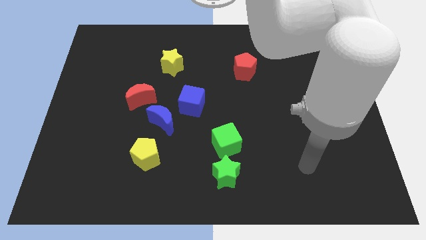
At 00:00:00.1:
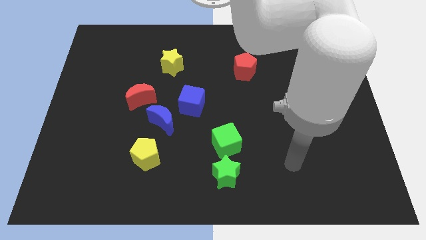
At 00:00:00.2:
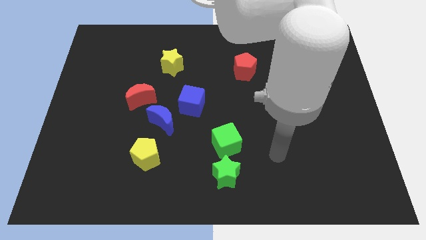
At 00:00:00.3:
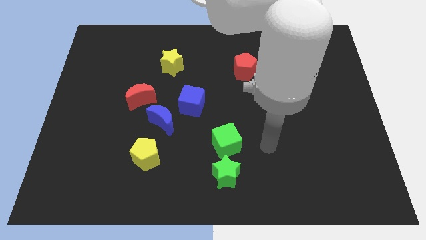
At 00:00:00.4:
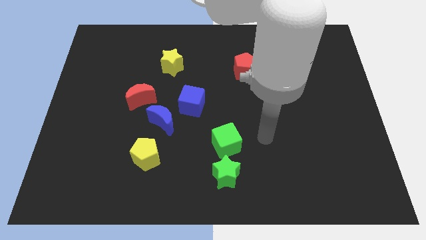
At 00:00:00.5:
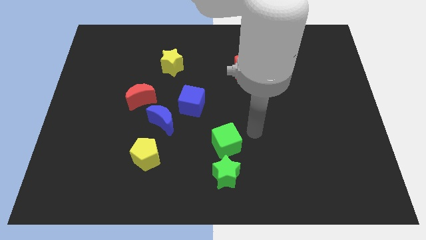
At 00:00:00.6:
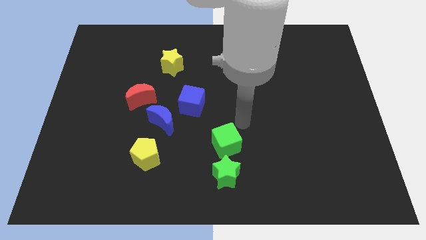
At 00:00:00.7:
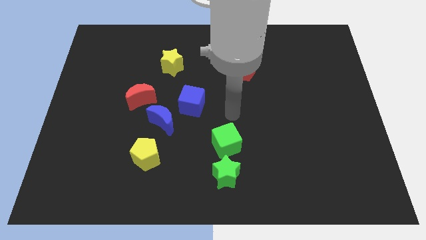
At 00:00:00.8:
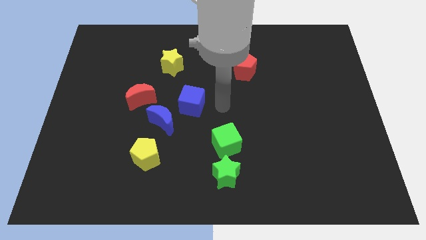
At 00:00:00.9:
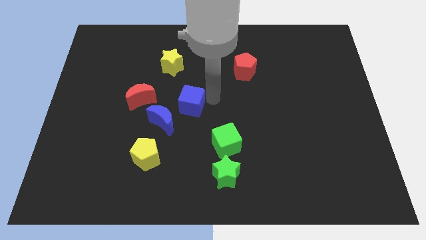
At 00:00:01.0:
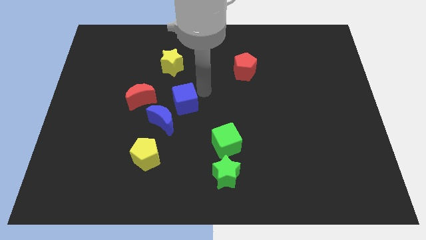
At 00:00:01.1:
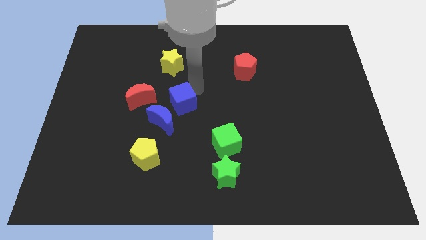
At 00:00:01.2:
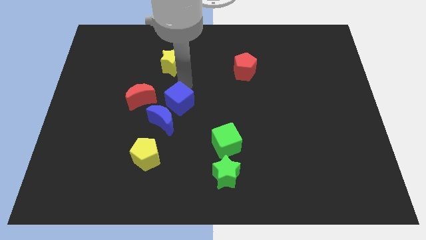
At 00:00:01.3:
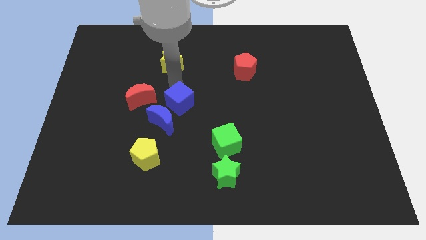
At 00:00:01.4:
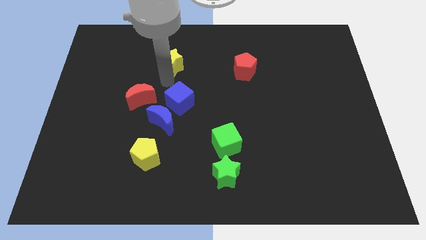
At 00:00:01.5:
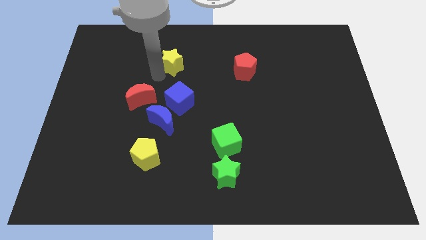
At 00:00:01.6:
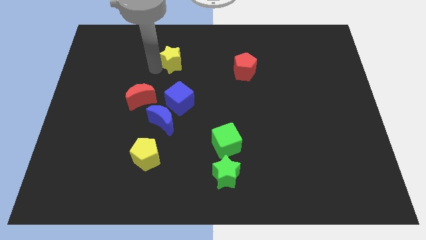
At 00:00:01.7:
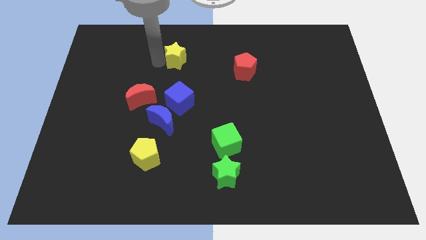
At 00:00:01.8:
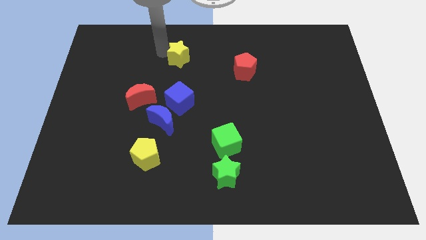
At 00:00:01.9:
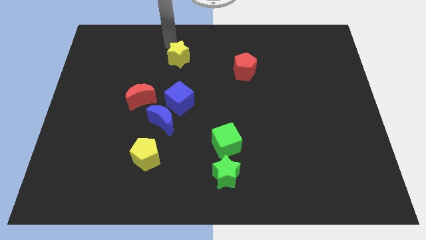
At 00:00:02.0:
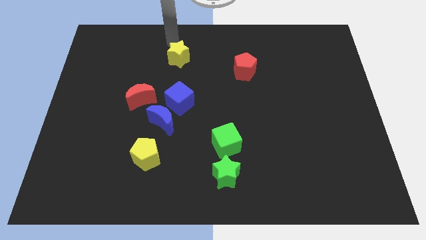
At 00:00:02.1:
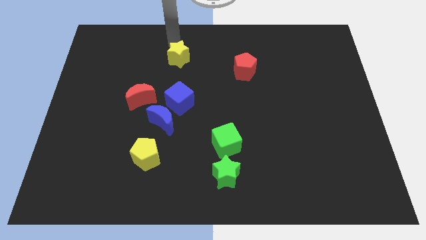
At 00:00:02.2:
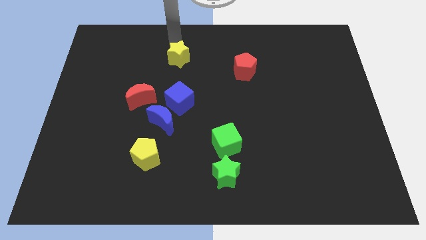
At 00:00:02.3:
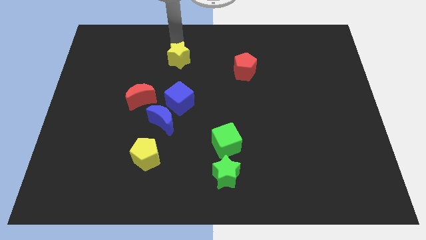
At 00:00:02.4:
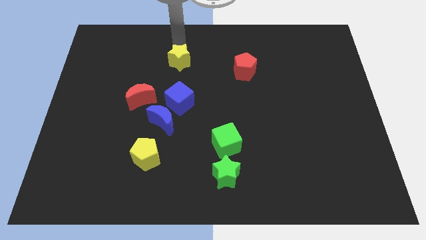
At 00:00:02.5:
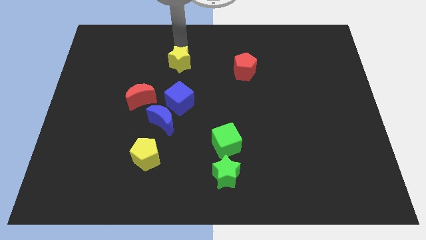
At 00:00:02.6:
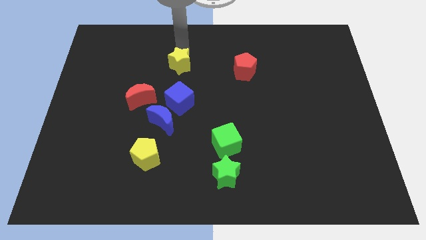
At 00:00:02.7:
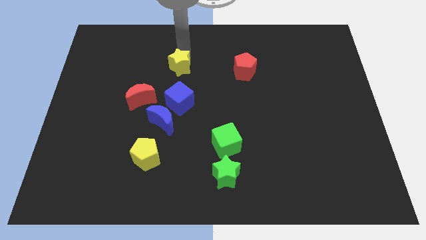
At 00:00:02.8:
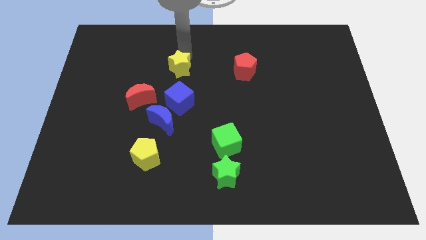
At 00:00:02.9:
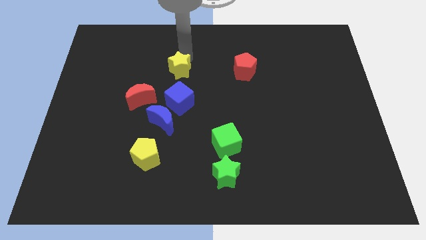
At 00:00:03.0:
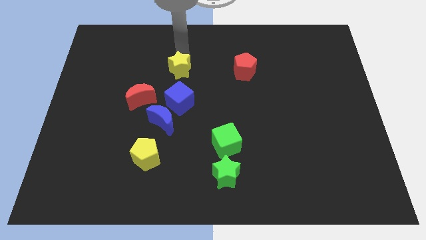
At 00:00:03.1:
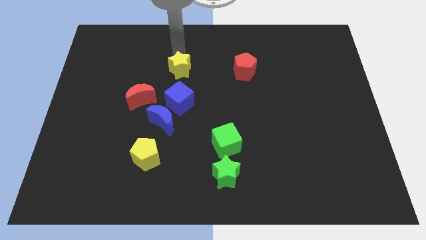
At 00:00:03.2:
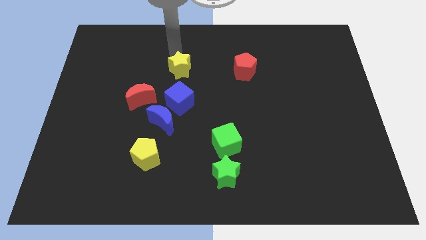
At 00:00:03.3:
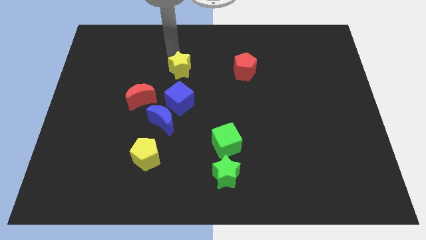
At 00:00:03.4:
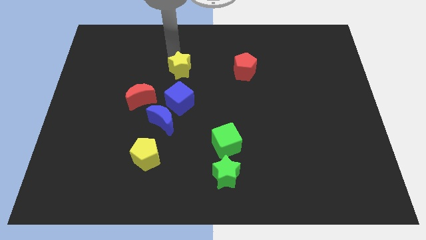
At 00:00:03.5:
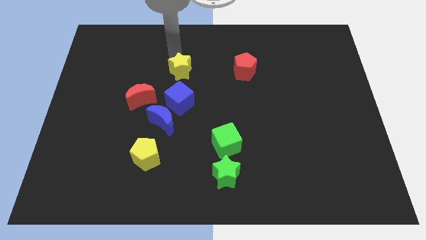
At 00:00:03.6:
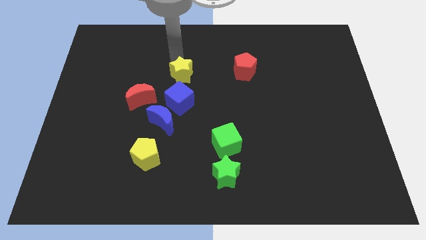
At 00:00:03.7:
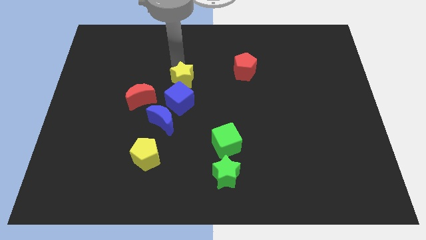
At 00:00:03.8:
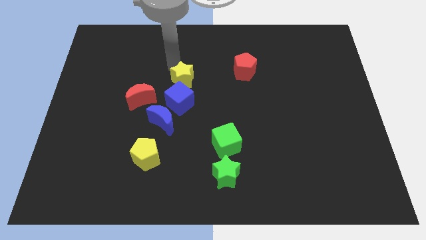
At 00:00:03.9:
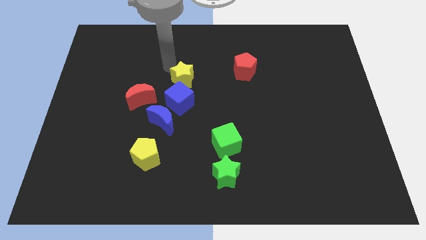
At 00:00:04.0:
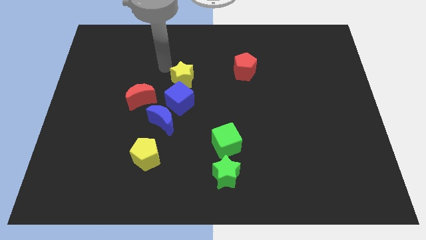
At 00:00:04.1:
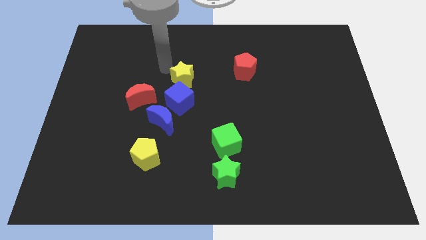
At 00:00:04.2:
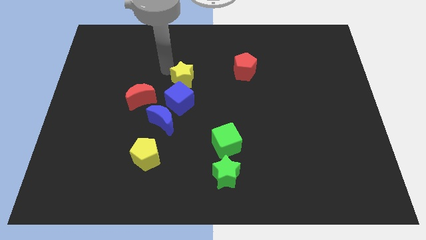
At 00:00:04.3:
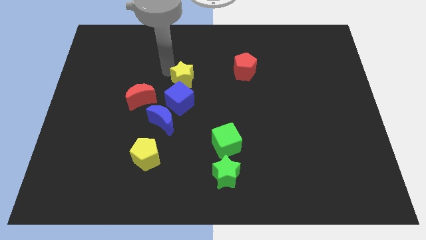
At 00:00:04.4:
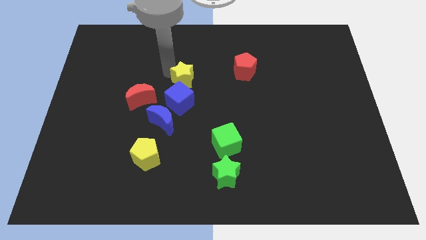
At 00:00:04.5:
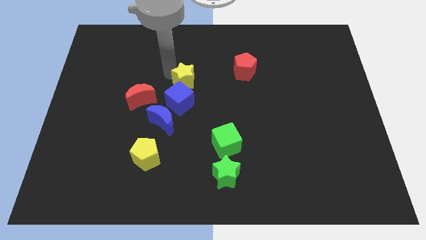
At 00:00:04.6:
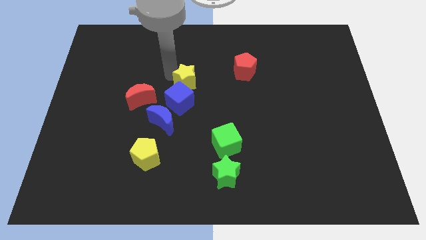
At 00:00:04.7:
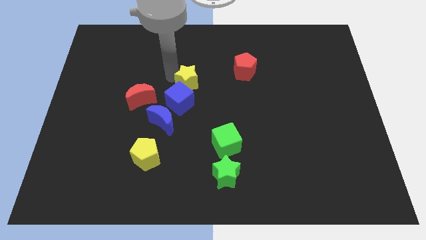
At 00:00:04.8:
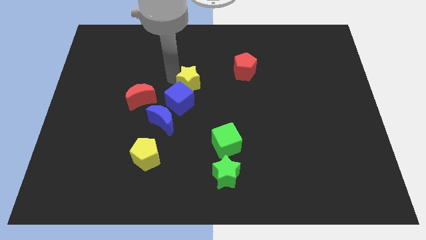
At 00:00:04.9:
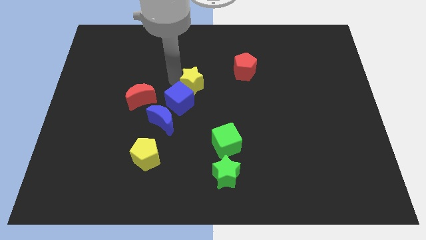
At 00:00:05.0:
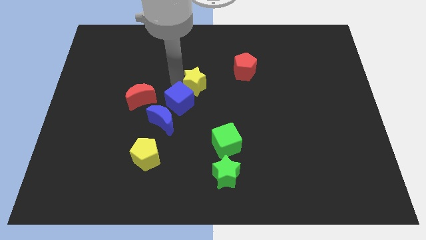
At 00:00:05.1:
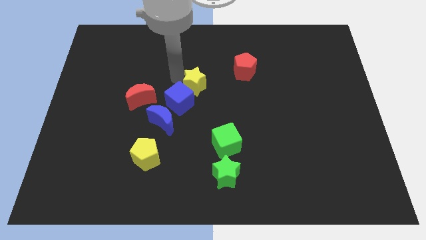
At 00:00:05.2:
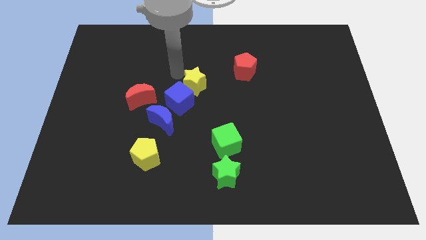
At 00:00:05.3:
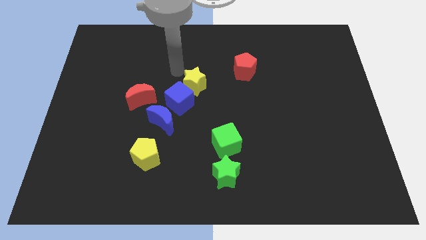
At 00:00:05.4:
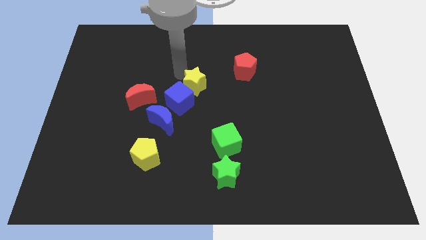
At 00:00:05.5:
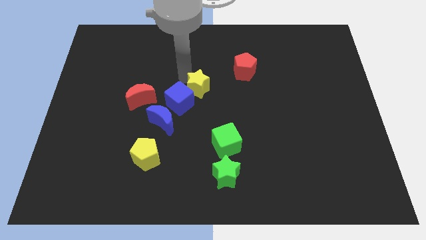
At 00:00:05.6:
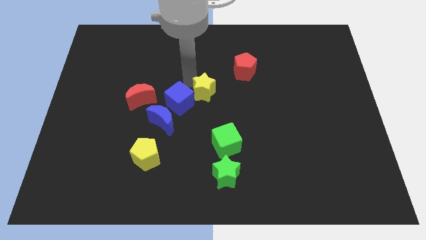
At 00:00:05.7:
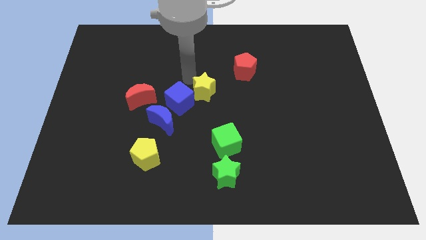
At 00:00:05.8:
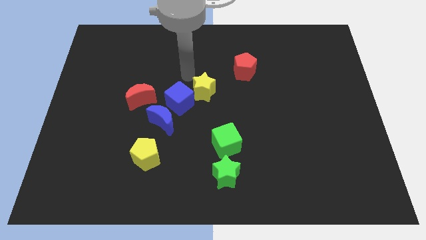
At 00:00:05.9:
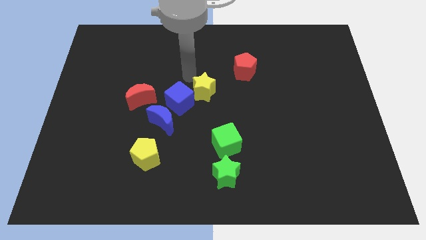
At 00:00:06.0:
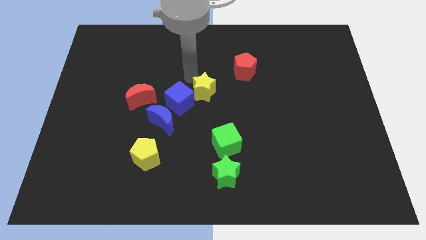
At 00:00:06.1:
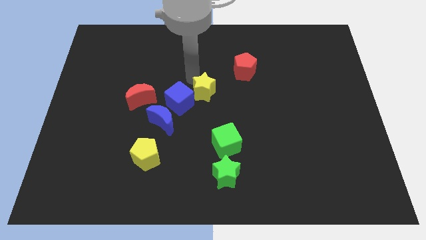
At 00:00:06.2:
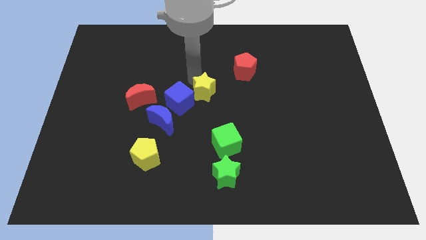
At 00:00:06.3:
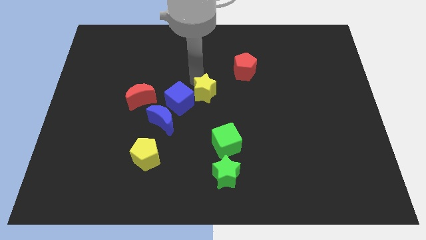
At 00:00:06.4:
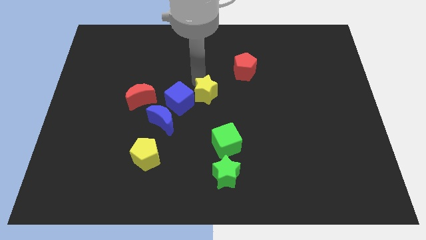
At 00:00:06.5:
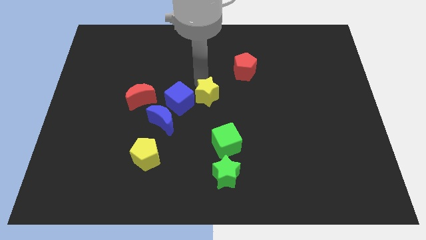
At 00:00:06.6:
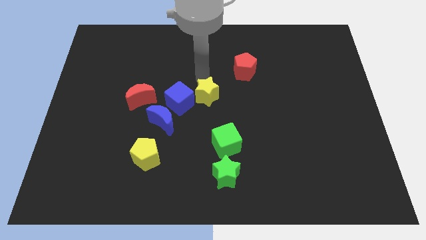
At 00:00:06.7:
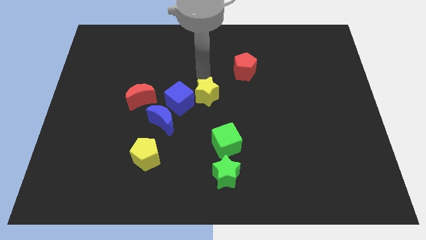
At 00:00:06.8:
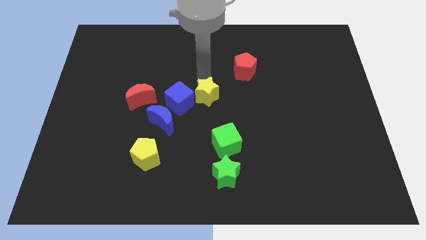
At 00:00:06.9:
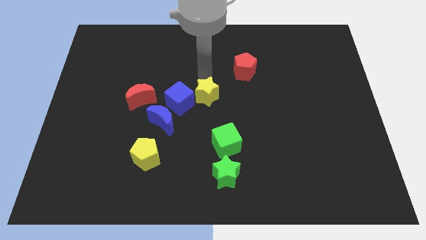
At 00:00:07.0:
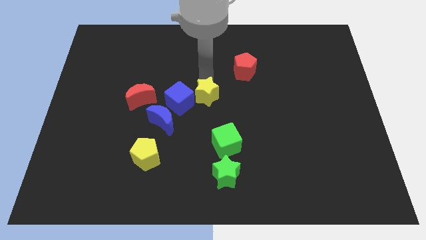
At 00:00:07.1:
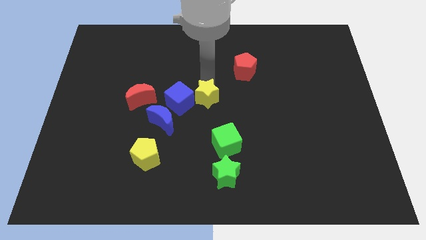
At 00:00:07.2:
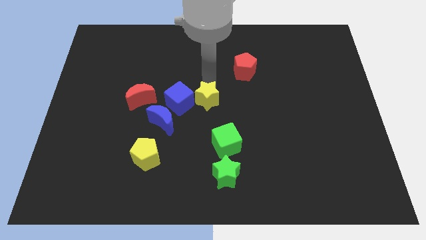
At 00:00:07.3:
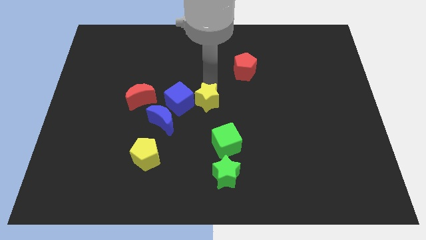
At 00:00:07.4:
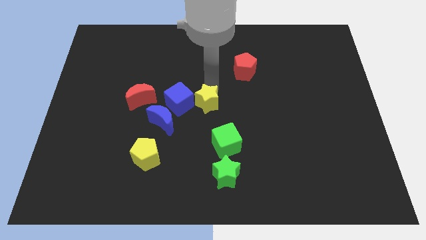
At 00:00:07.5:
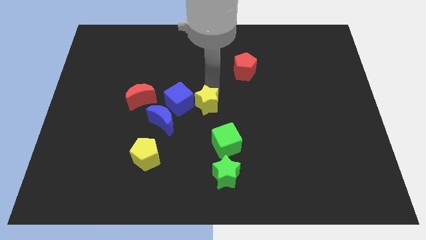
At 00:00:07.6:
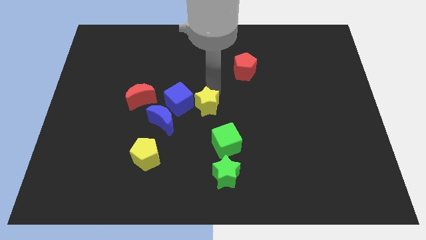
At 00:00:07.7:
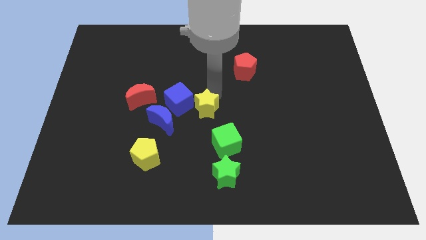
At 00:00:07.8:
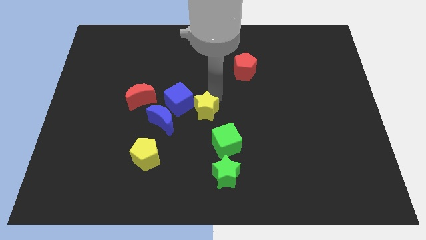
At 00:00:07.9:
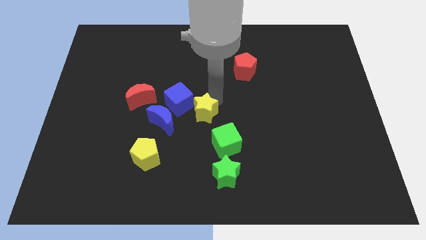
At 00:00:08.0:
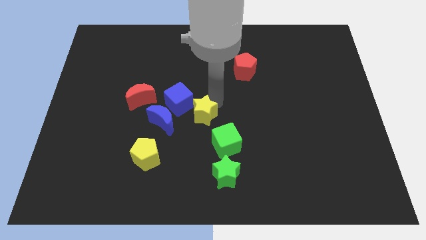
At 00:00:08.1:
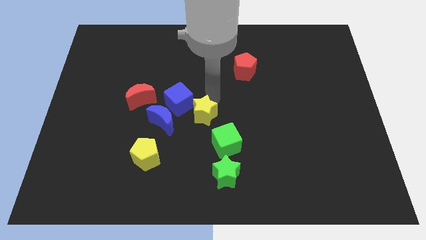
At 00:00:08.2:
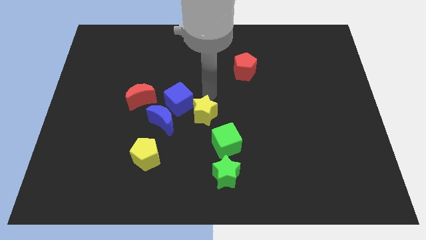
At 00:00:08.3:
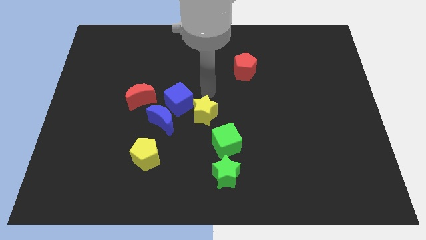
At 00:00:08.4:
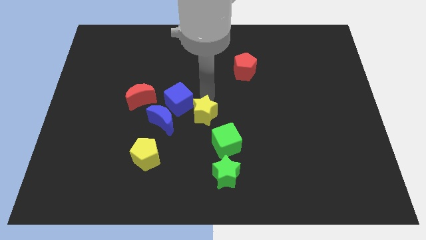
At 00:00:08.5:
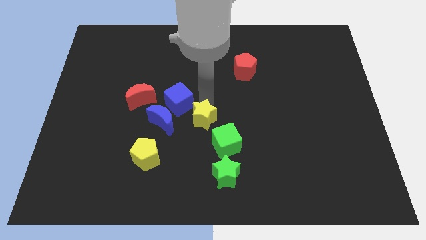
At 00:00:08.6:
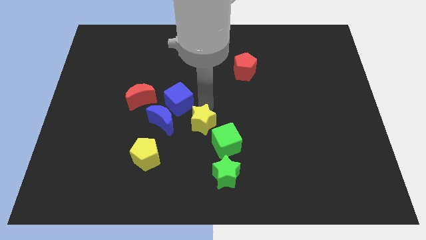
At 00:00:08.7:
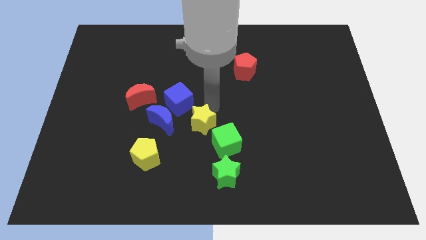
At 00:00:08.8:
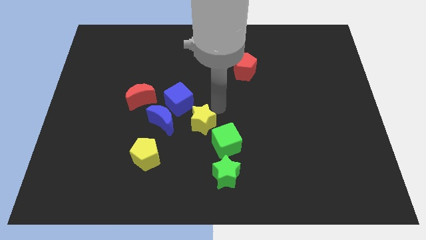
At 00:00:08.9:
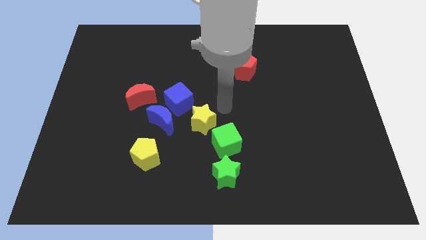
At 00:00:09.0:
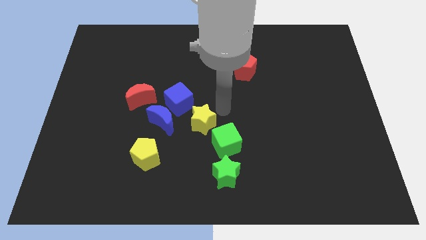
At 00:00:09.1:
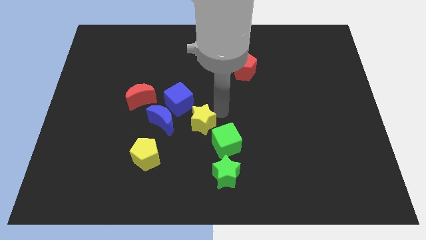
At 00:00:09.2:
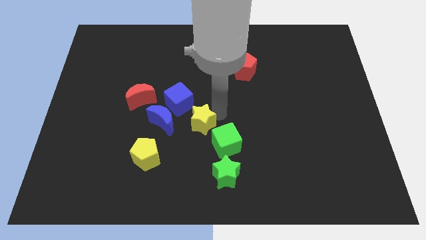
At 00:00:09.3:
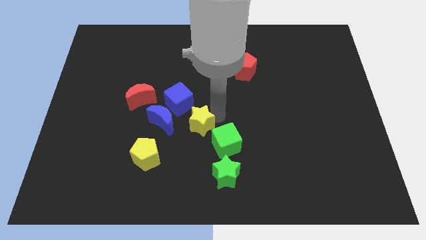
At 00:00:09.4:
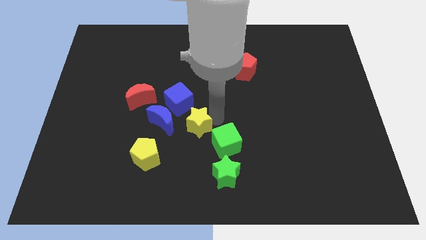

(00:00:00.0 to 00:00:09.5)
put the yellow star to the bottom side of the blue cube
